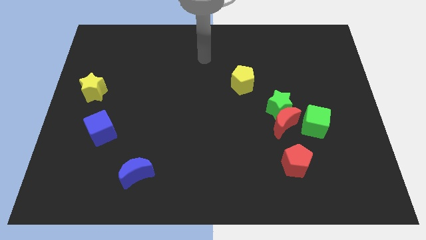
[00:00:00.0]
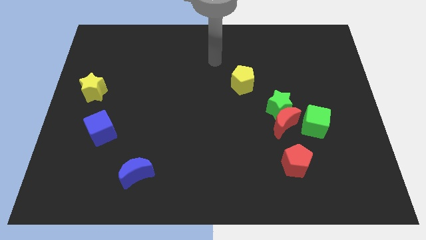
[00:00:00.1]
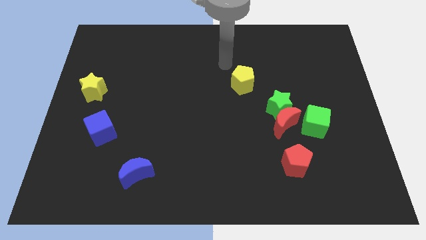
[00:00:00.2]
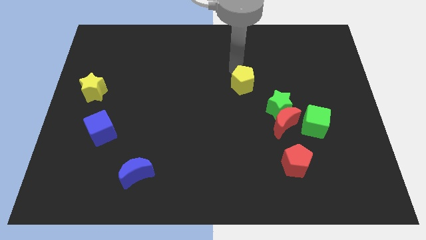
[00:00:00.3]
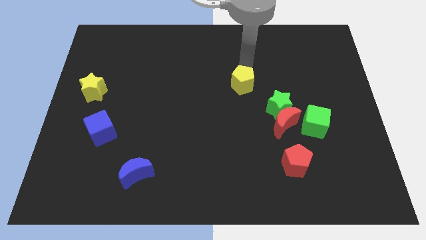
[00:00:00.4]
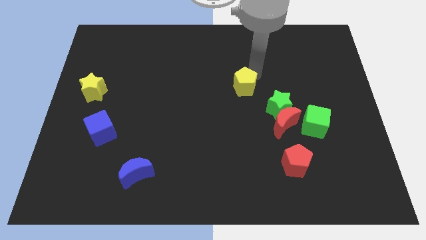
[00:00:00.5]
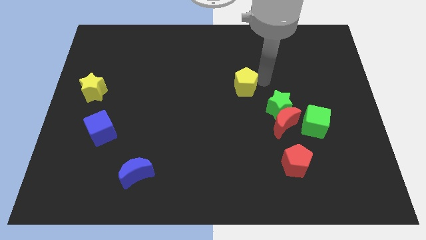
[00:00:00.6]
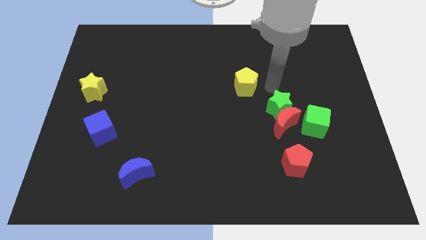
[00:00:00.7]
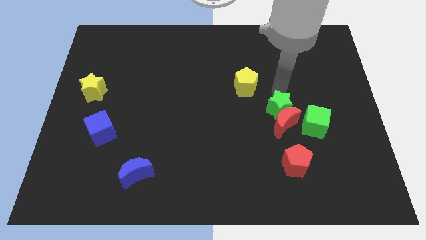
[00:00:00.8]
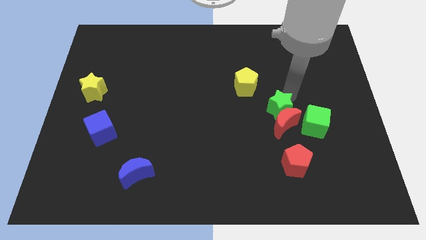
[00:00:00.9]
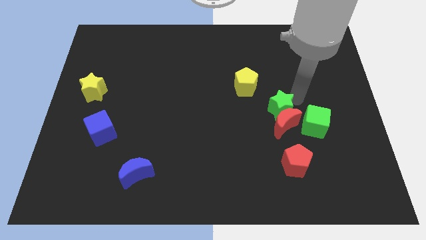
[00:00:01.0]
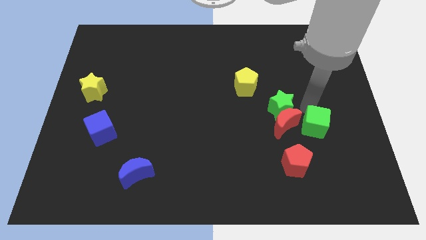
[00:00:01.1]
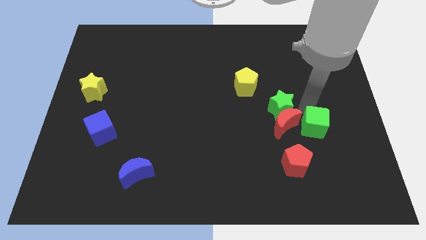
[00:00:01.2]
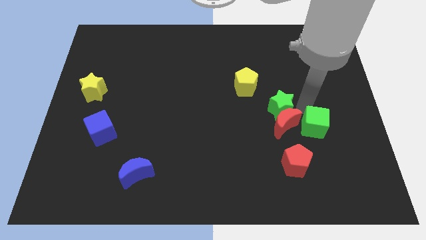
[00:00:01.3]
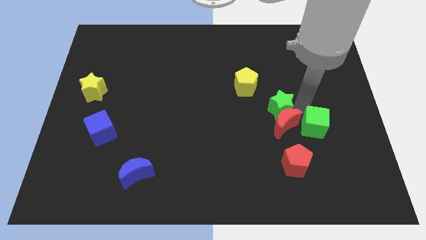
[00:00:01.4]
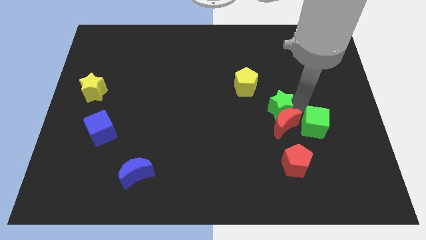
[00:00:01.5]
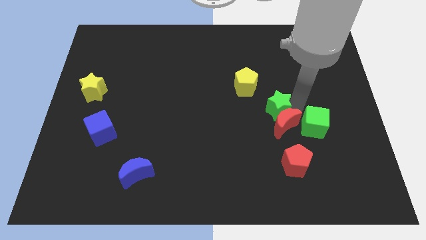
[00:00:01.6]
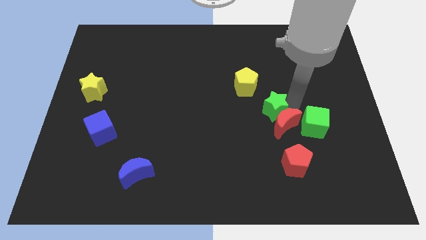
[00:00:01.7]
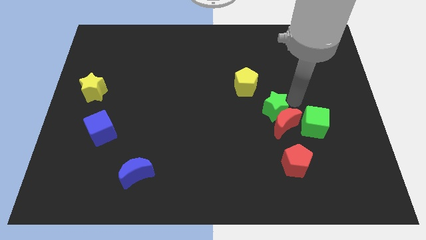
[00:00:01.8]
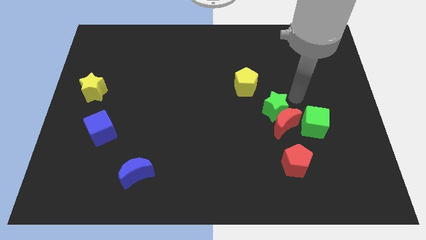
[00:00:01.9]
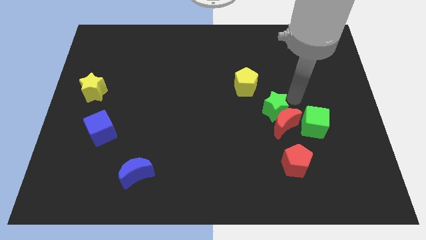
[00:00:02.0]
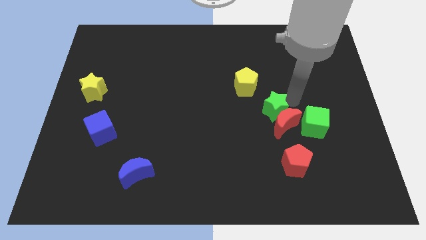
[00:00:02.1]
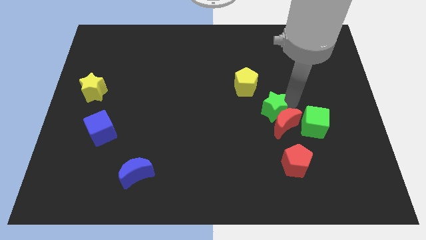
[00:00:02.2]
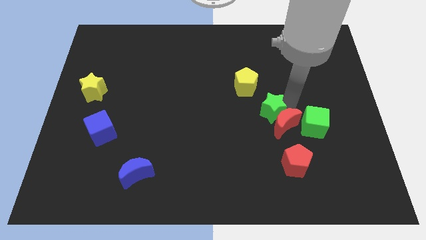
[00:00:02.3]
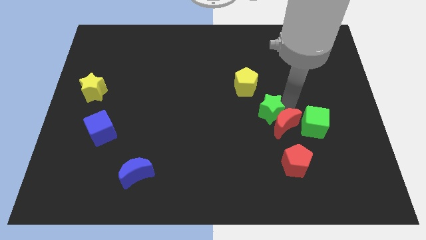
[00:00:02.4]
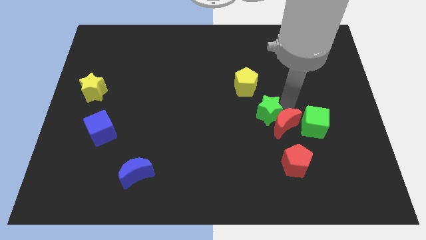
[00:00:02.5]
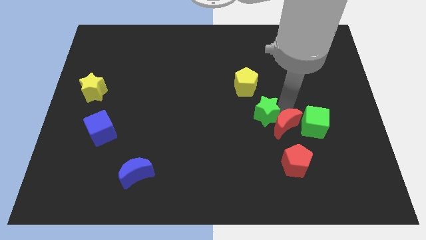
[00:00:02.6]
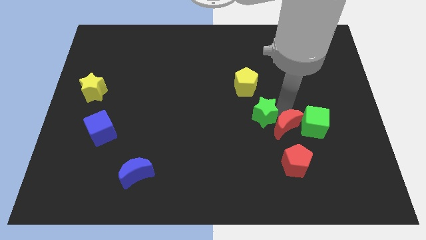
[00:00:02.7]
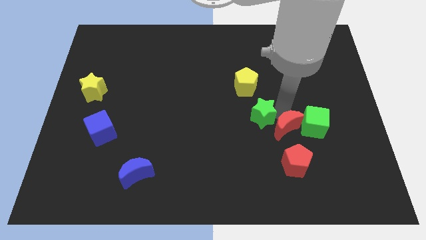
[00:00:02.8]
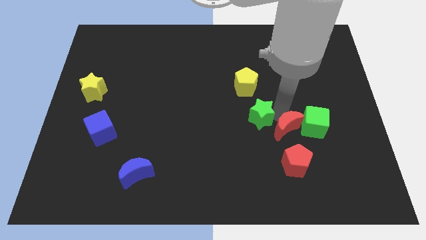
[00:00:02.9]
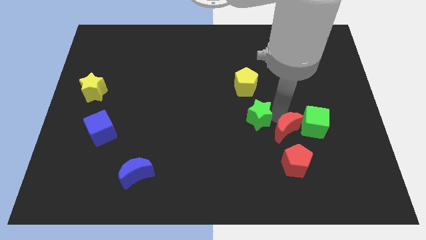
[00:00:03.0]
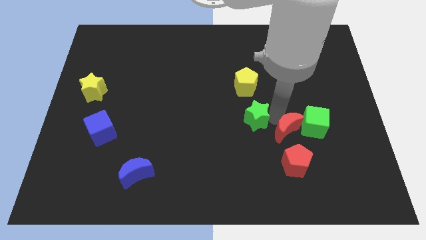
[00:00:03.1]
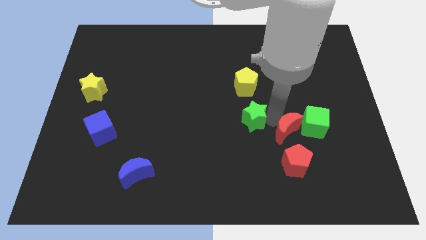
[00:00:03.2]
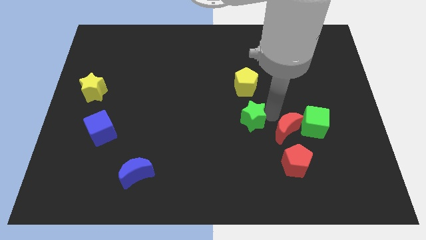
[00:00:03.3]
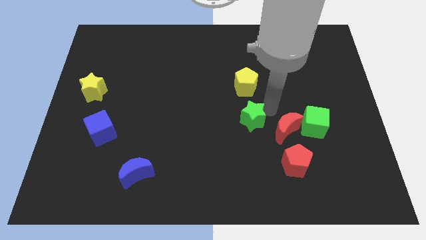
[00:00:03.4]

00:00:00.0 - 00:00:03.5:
slide the green star a bit downwards and then left

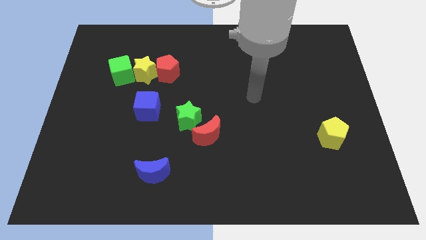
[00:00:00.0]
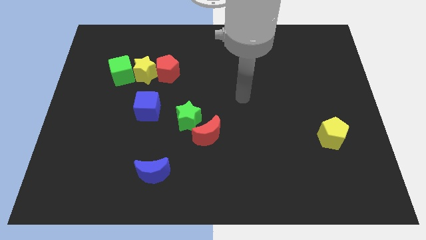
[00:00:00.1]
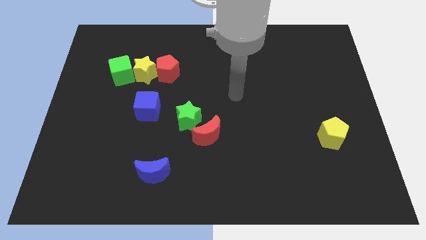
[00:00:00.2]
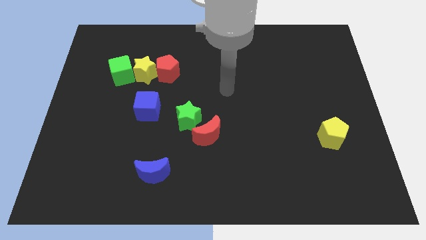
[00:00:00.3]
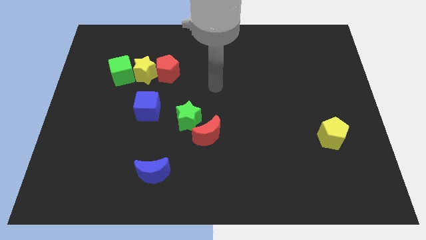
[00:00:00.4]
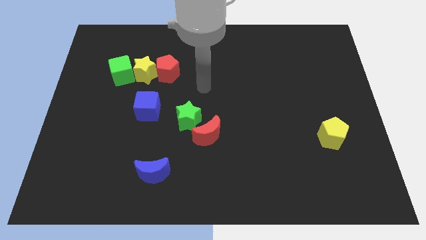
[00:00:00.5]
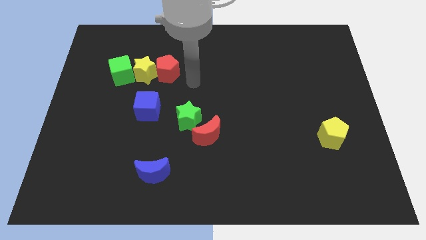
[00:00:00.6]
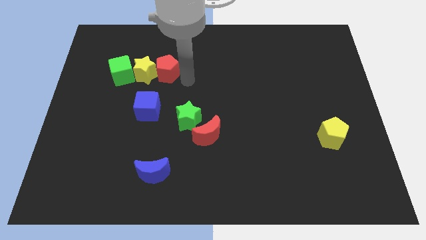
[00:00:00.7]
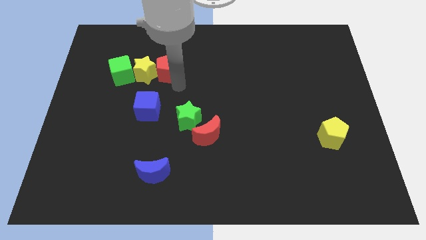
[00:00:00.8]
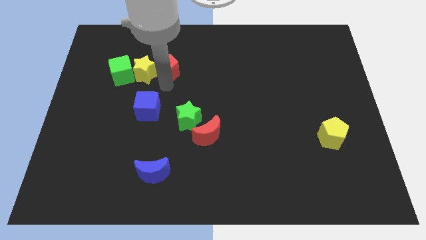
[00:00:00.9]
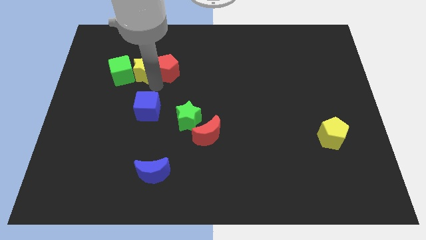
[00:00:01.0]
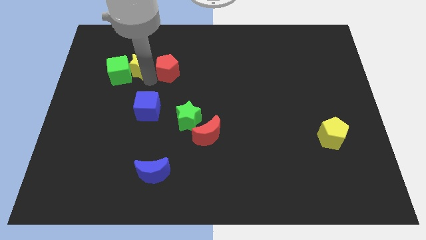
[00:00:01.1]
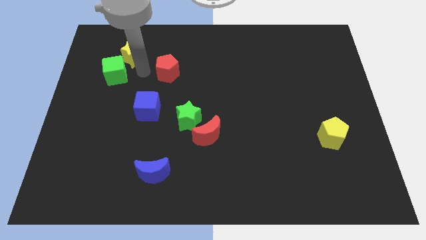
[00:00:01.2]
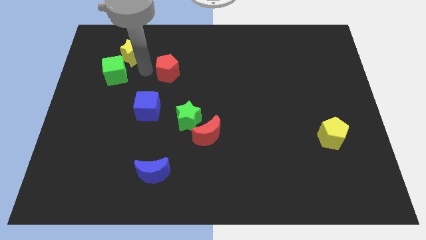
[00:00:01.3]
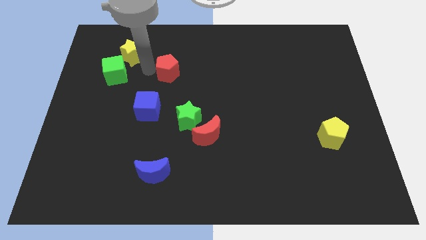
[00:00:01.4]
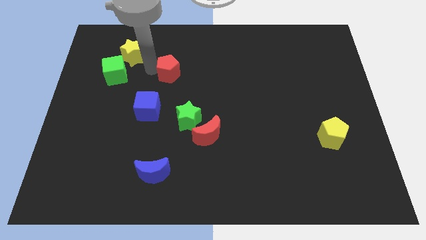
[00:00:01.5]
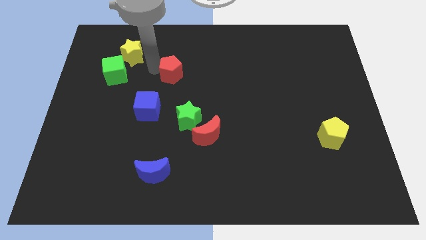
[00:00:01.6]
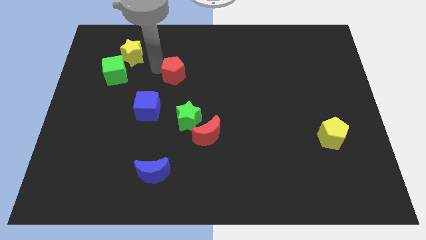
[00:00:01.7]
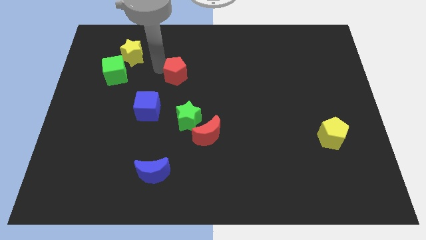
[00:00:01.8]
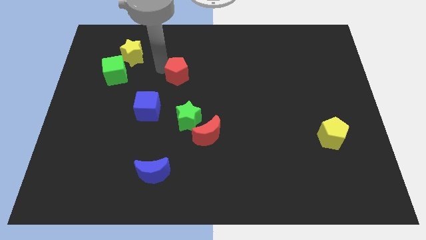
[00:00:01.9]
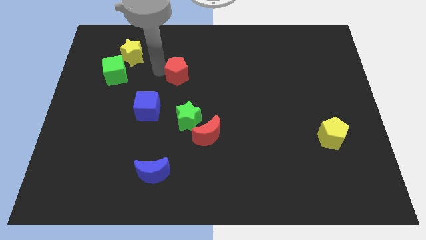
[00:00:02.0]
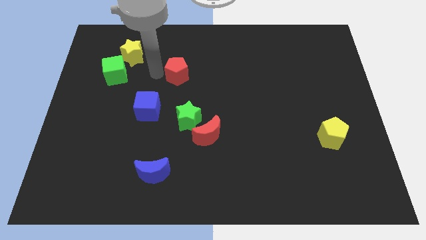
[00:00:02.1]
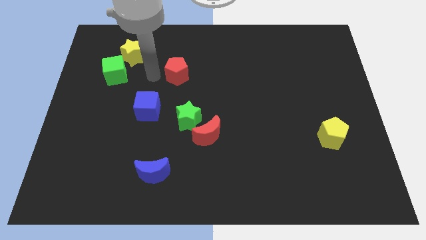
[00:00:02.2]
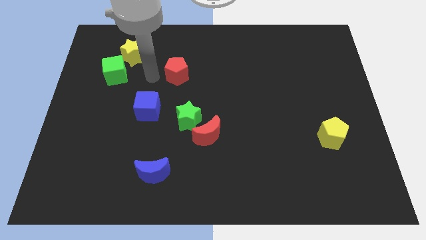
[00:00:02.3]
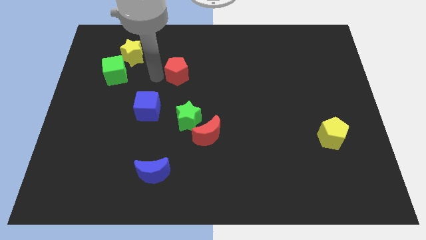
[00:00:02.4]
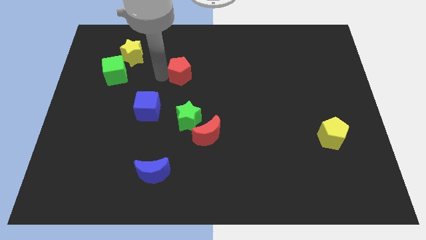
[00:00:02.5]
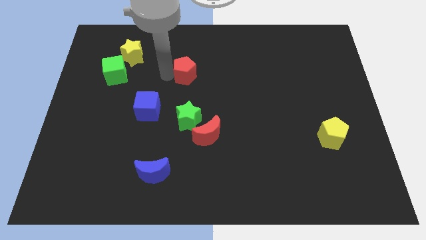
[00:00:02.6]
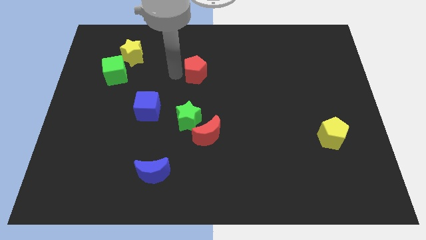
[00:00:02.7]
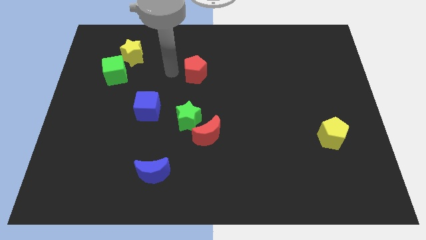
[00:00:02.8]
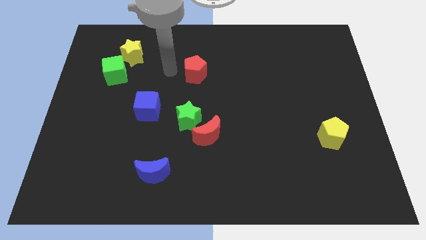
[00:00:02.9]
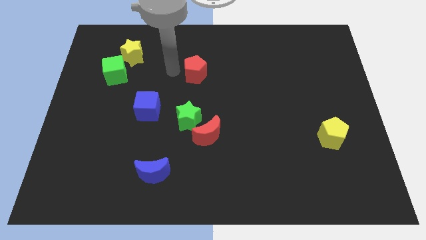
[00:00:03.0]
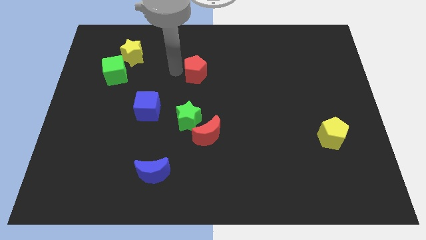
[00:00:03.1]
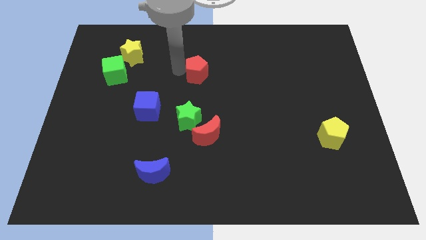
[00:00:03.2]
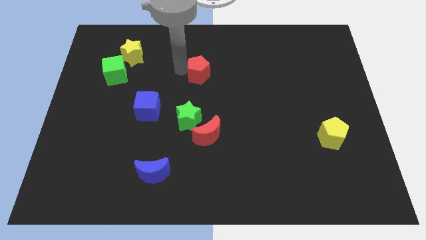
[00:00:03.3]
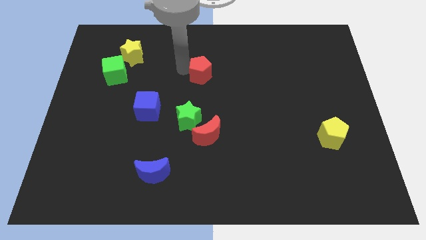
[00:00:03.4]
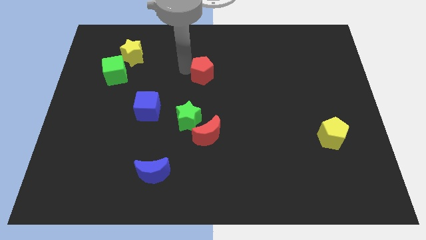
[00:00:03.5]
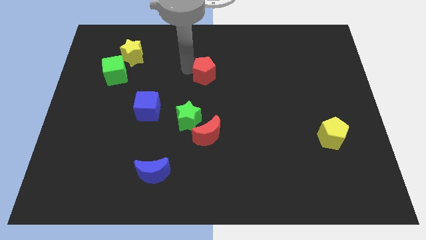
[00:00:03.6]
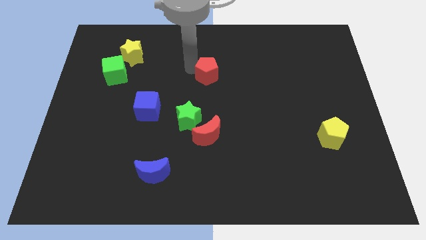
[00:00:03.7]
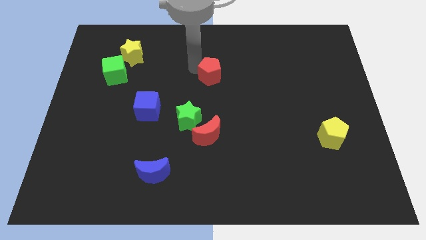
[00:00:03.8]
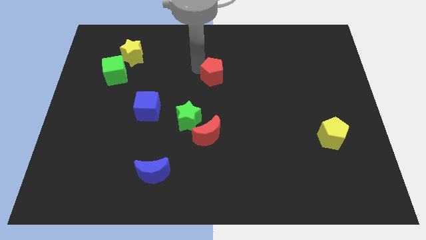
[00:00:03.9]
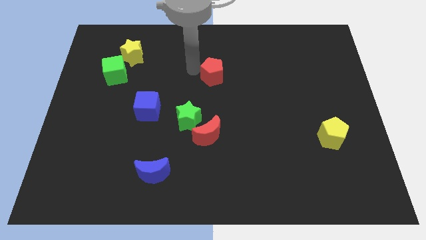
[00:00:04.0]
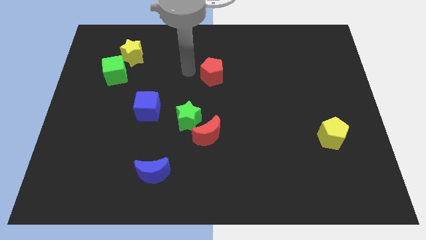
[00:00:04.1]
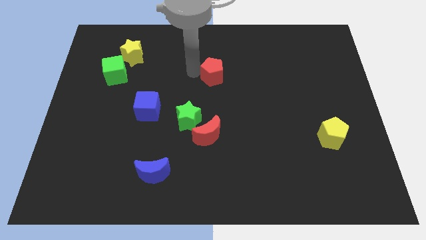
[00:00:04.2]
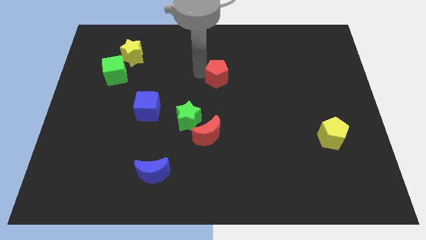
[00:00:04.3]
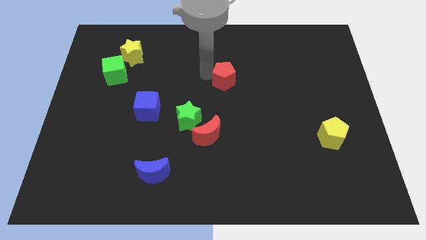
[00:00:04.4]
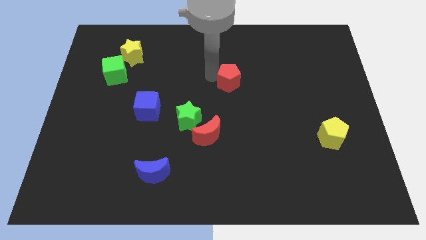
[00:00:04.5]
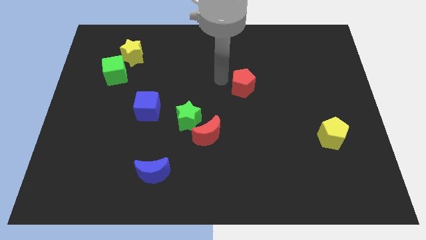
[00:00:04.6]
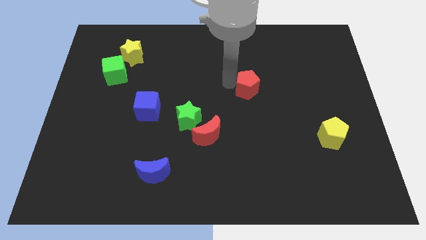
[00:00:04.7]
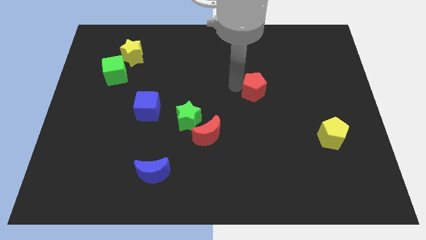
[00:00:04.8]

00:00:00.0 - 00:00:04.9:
push the red pentagon right
